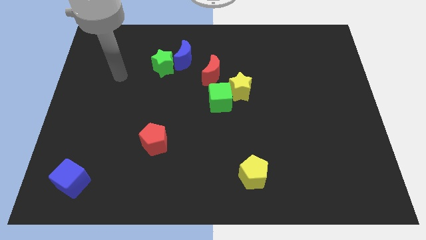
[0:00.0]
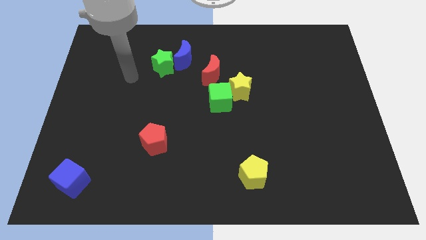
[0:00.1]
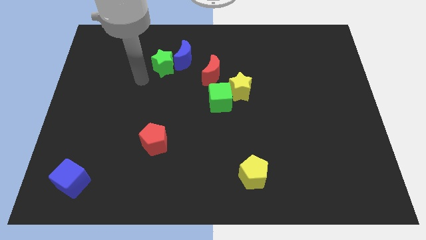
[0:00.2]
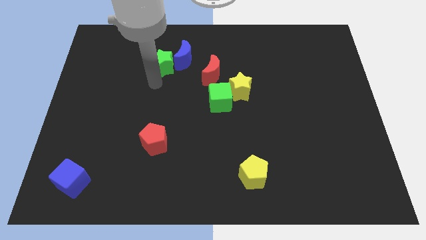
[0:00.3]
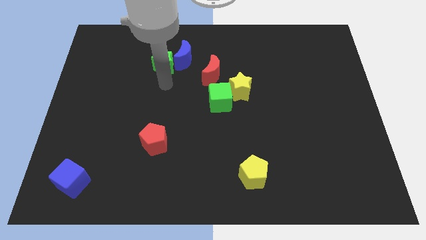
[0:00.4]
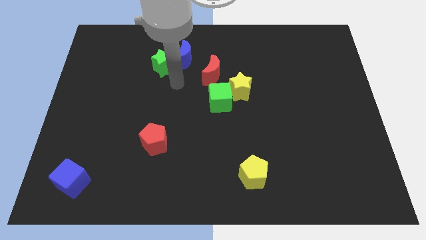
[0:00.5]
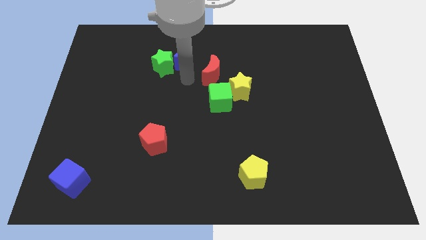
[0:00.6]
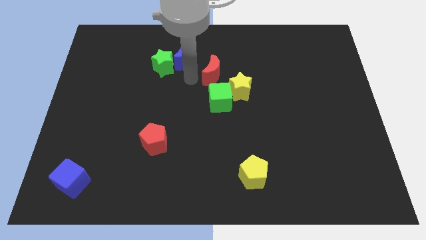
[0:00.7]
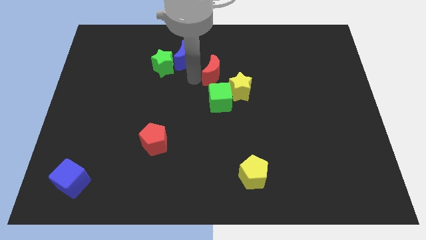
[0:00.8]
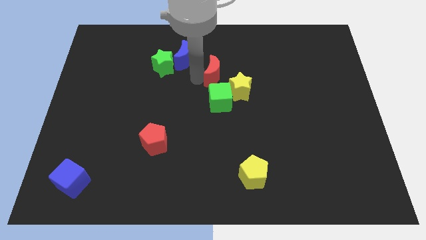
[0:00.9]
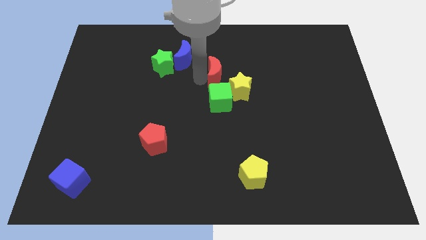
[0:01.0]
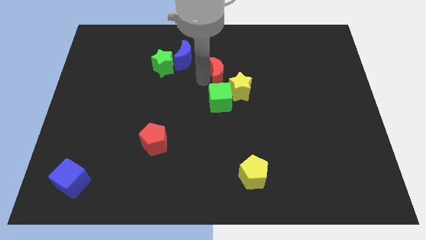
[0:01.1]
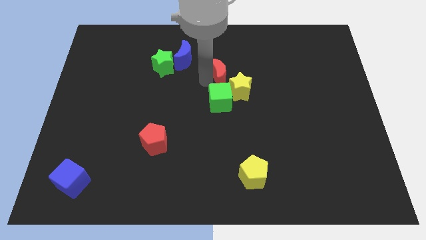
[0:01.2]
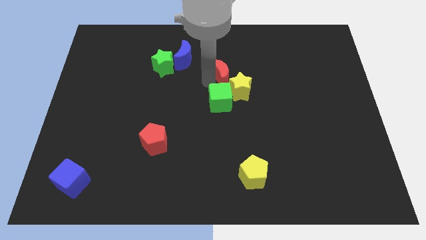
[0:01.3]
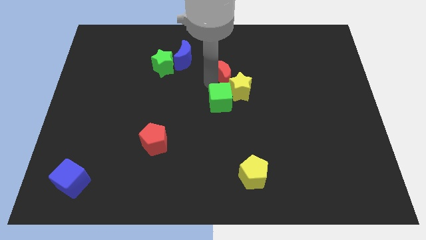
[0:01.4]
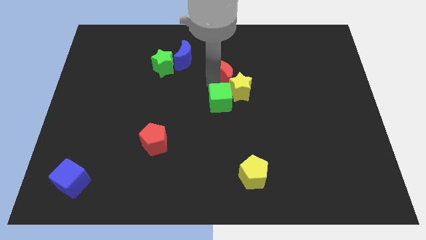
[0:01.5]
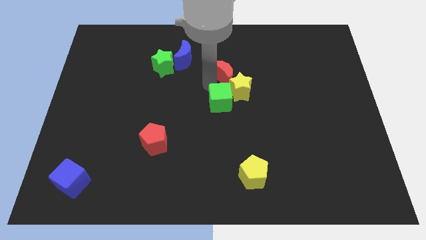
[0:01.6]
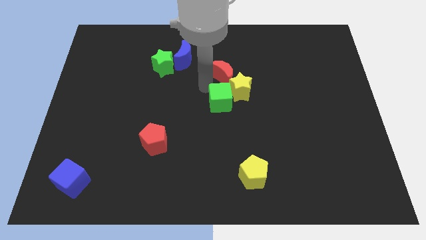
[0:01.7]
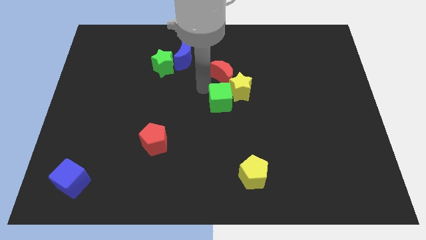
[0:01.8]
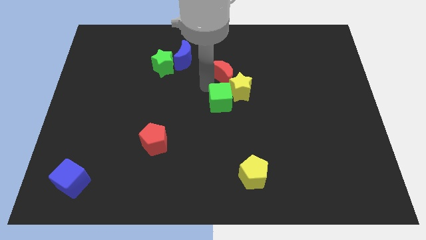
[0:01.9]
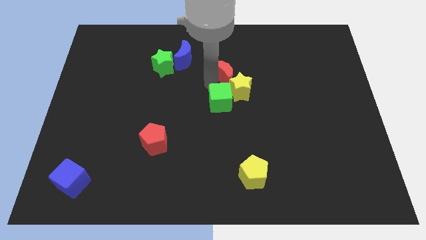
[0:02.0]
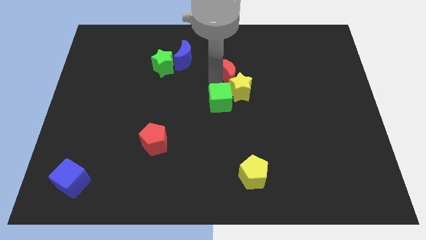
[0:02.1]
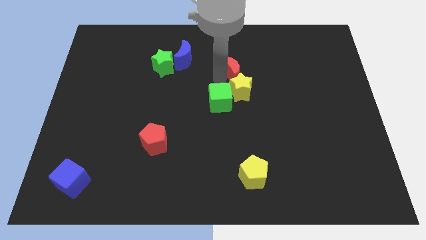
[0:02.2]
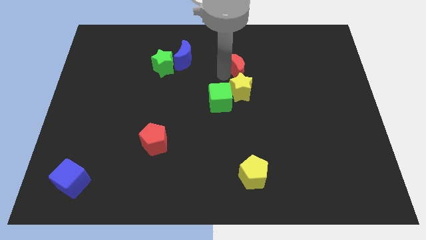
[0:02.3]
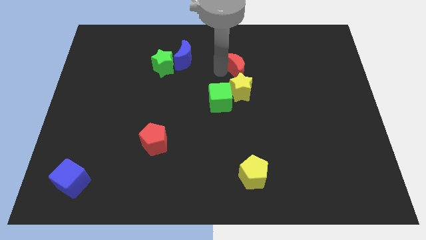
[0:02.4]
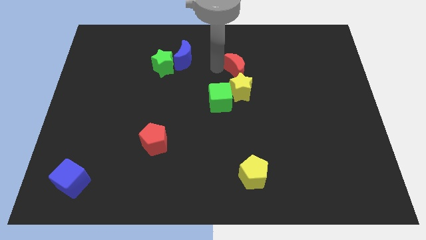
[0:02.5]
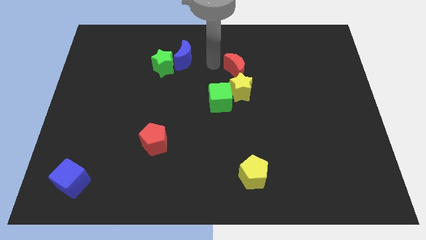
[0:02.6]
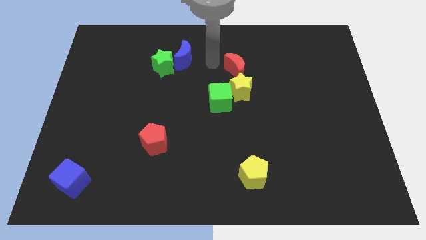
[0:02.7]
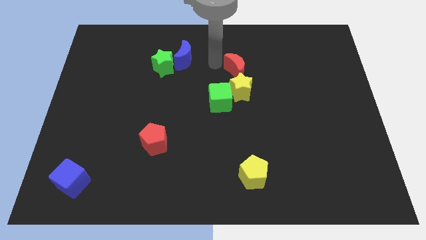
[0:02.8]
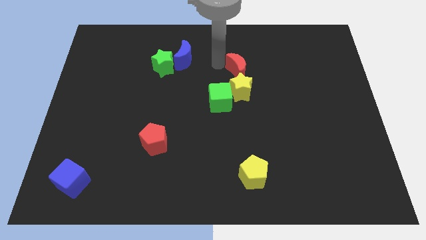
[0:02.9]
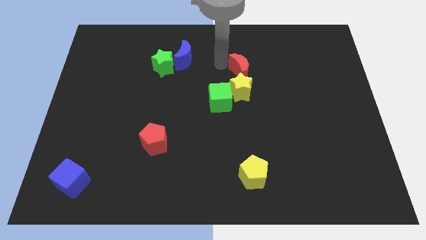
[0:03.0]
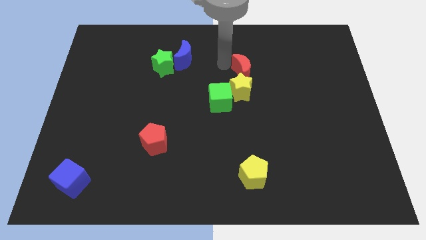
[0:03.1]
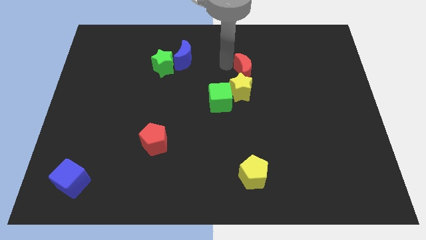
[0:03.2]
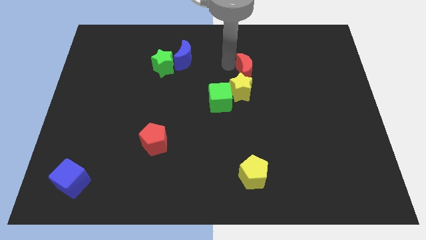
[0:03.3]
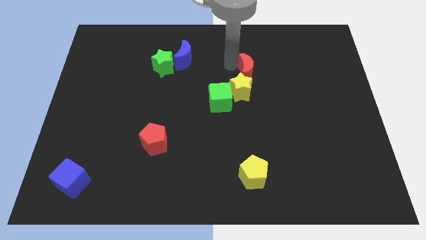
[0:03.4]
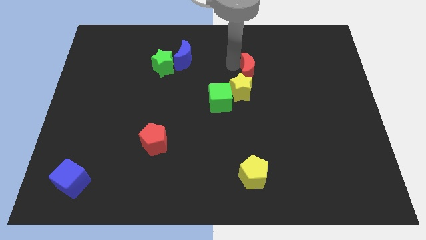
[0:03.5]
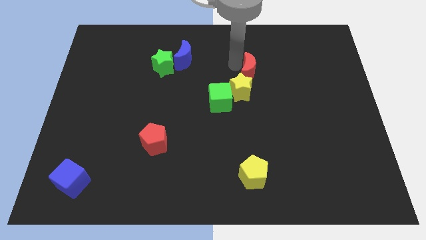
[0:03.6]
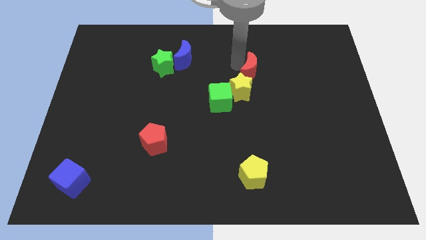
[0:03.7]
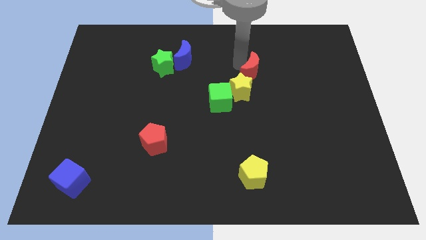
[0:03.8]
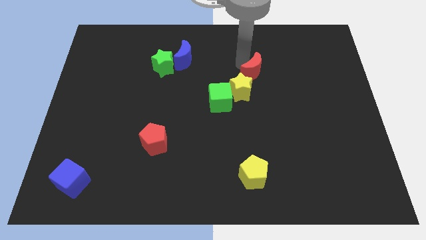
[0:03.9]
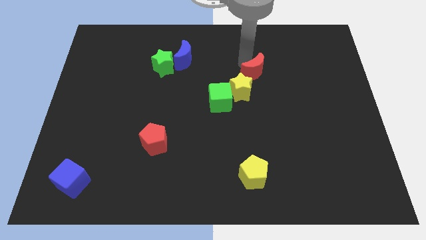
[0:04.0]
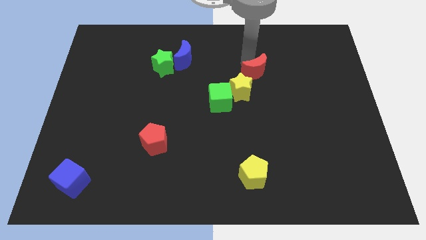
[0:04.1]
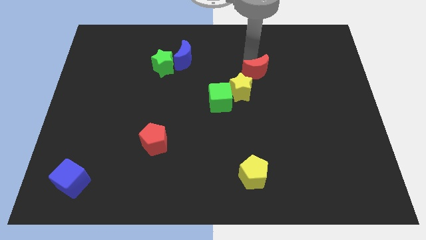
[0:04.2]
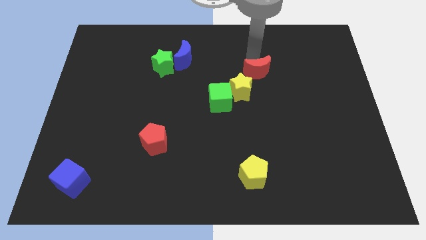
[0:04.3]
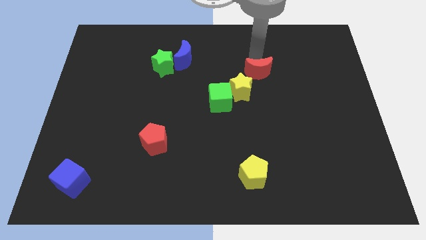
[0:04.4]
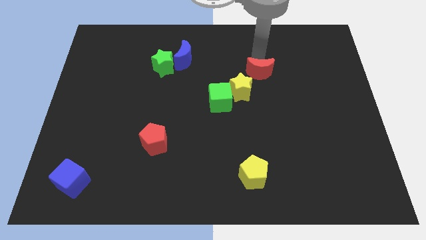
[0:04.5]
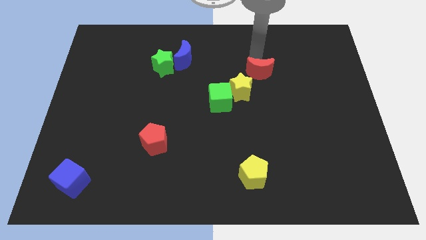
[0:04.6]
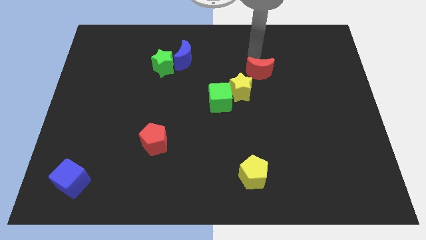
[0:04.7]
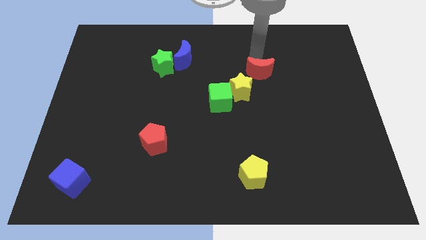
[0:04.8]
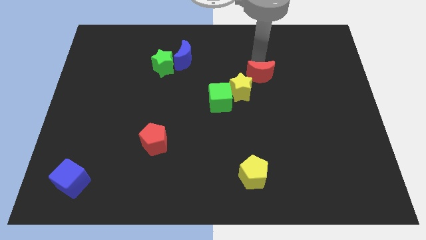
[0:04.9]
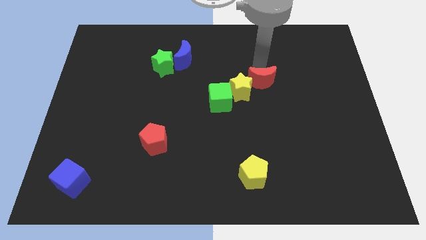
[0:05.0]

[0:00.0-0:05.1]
slightly slide the red moon diagonally downwards and to the right

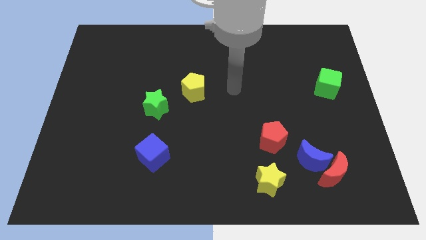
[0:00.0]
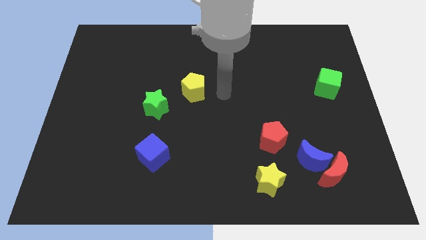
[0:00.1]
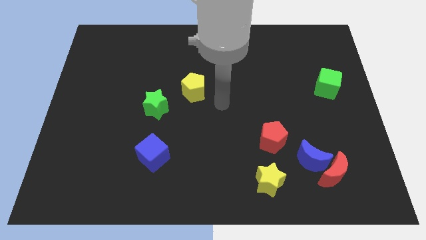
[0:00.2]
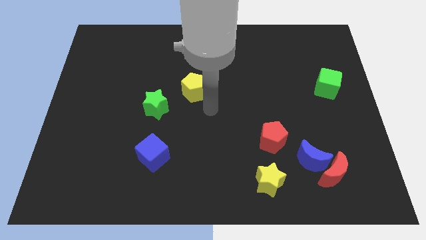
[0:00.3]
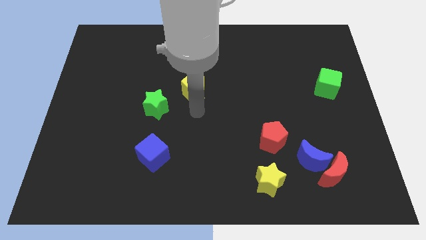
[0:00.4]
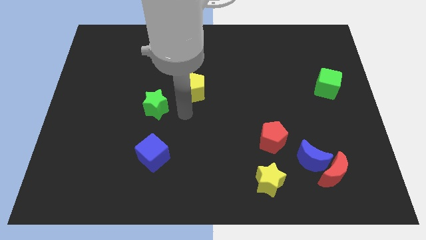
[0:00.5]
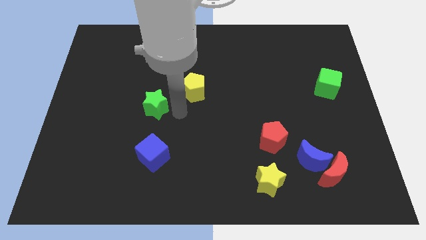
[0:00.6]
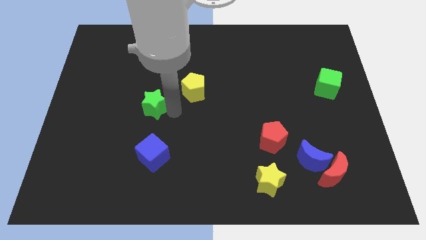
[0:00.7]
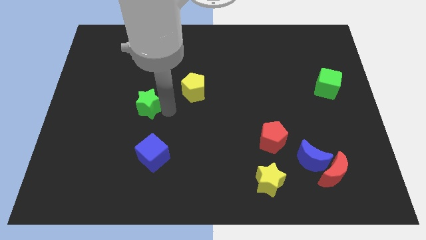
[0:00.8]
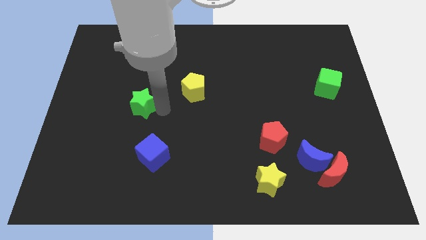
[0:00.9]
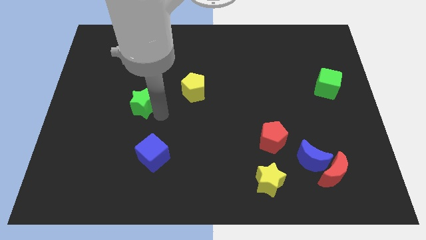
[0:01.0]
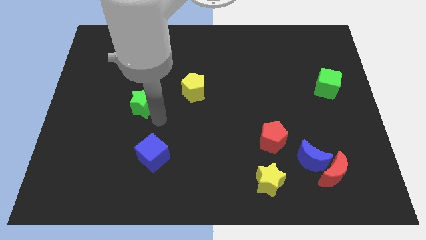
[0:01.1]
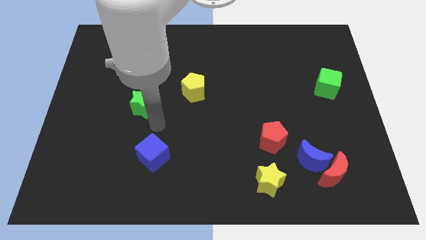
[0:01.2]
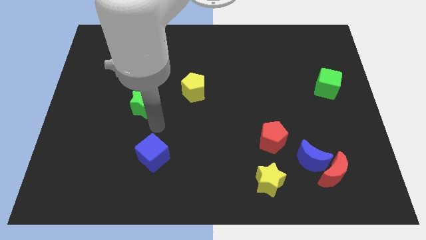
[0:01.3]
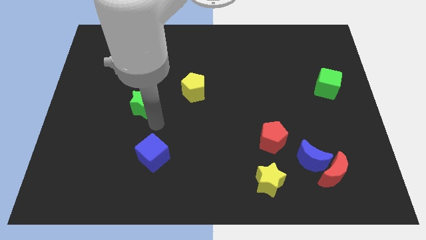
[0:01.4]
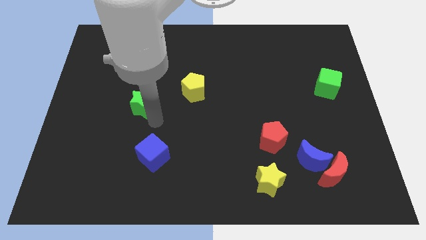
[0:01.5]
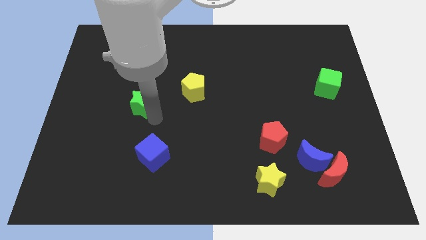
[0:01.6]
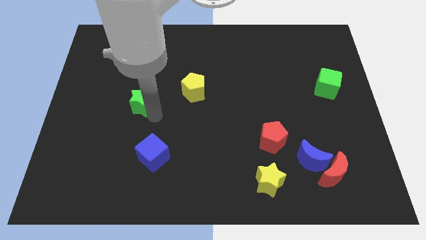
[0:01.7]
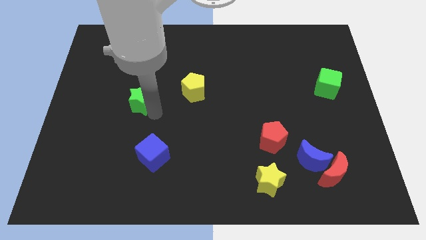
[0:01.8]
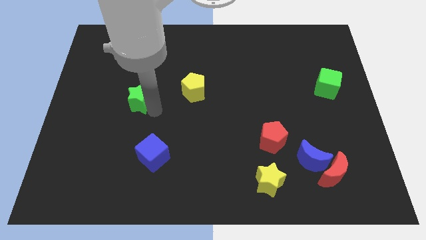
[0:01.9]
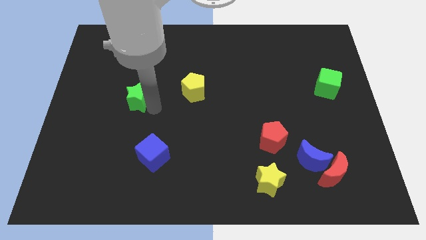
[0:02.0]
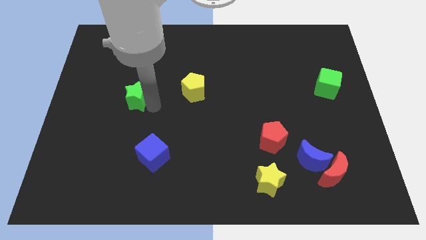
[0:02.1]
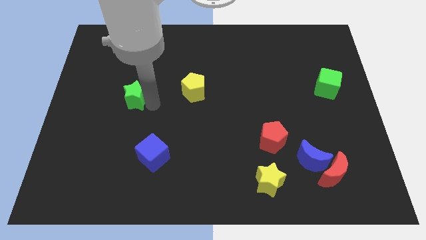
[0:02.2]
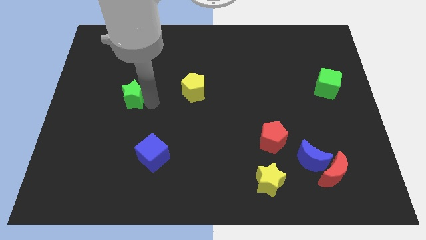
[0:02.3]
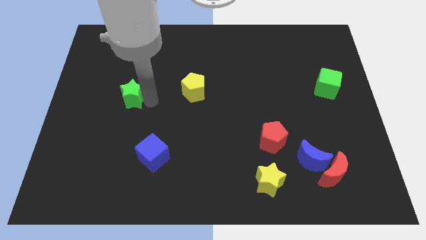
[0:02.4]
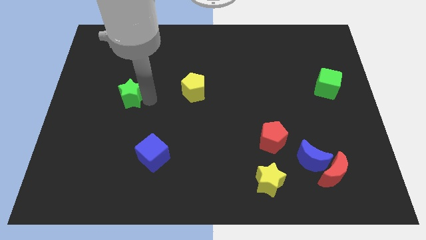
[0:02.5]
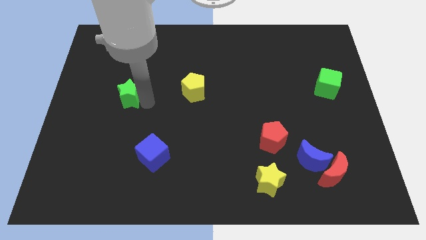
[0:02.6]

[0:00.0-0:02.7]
slide the green star a bit up and to the left

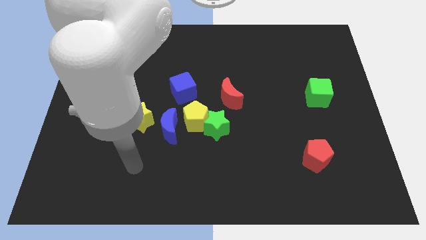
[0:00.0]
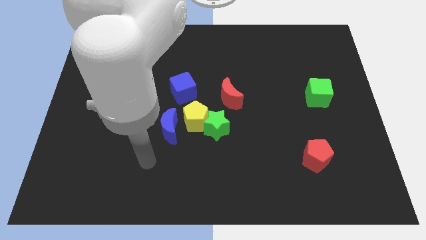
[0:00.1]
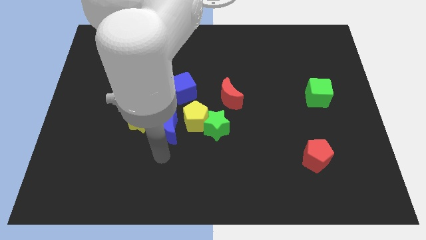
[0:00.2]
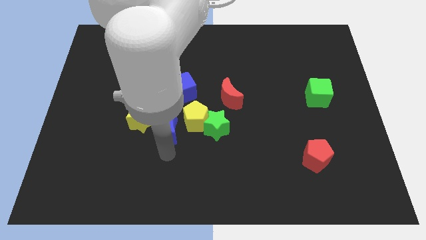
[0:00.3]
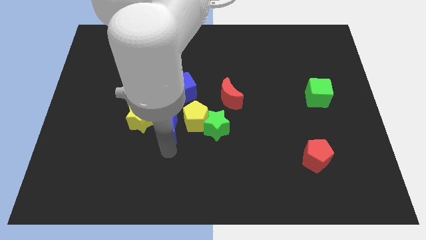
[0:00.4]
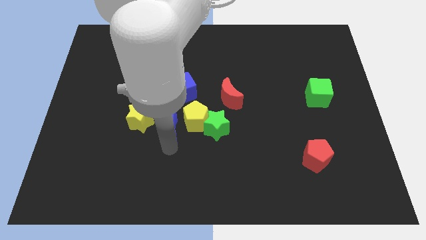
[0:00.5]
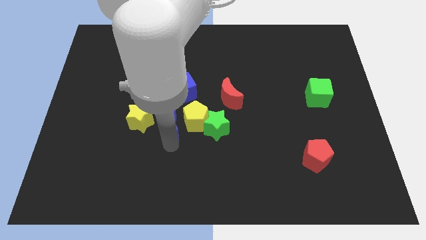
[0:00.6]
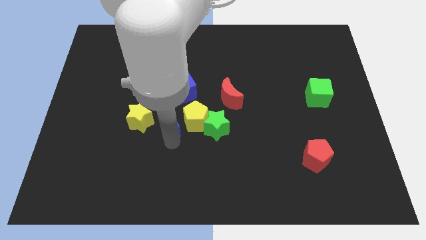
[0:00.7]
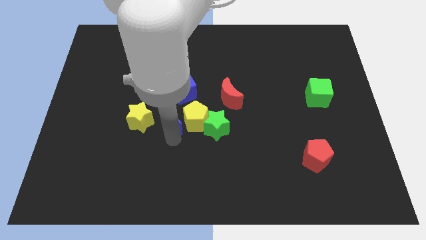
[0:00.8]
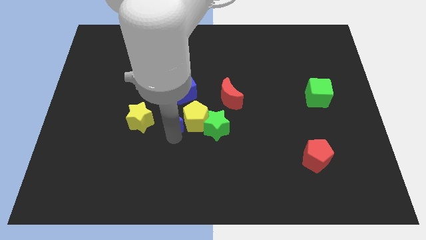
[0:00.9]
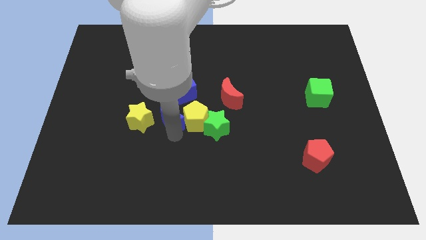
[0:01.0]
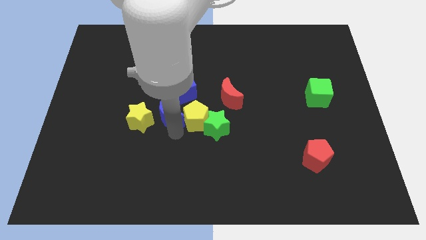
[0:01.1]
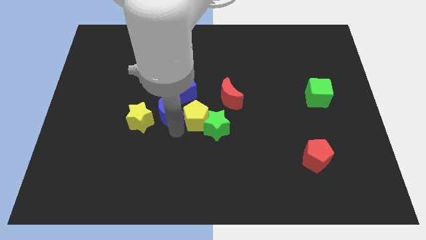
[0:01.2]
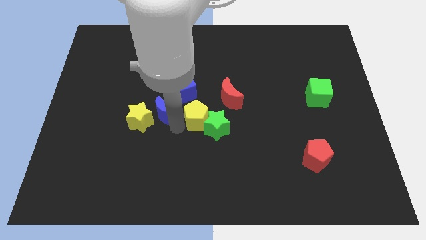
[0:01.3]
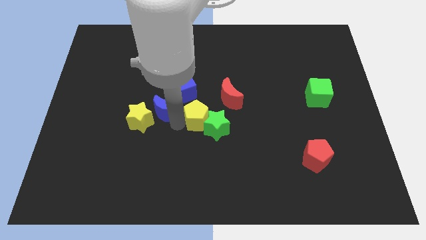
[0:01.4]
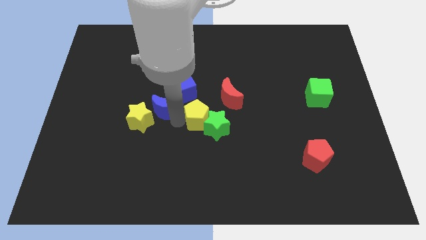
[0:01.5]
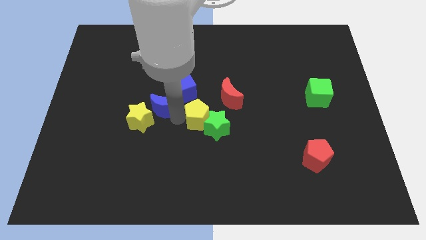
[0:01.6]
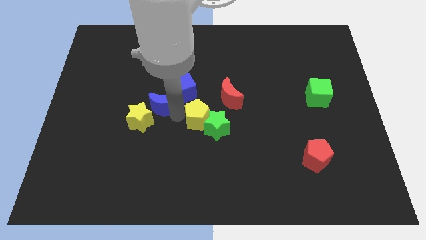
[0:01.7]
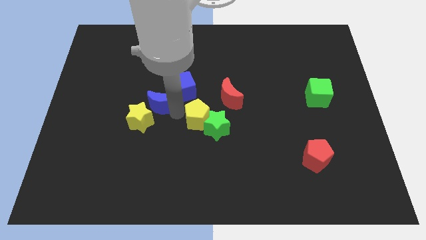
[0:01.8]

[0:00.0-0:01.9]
push the blue moon upwards a little
